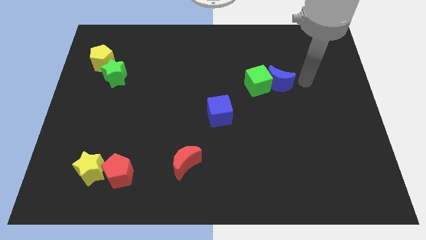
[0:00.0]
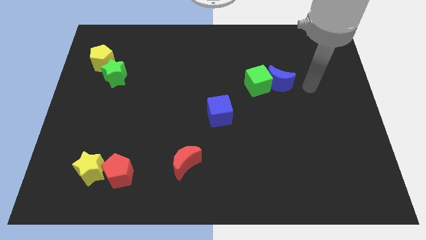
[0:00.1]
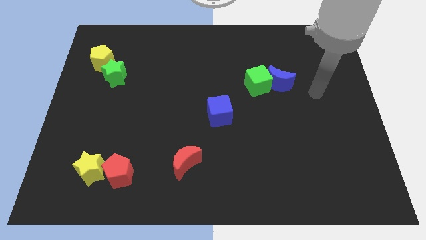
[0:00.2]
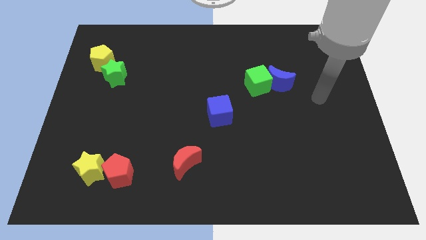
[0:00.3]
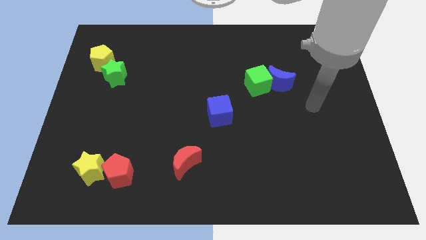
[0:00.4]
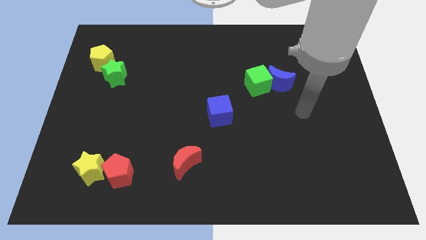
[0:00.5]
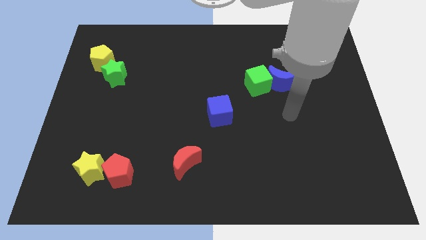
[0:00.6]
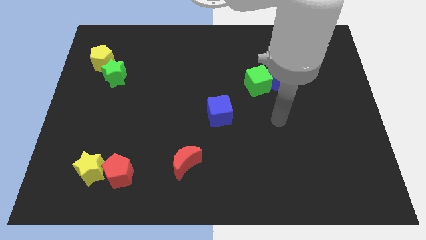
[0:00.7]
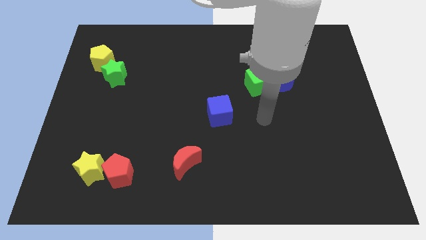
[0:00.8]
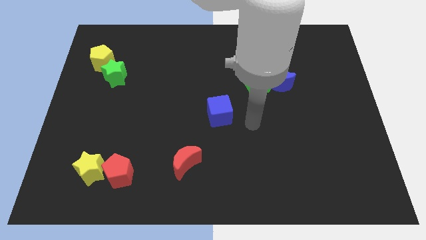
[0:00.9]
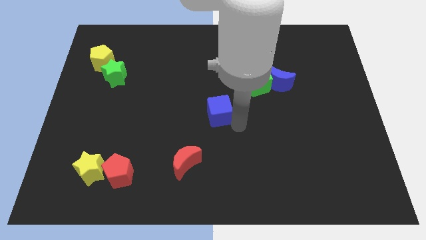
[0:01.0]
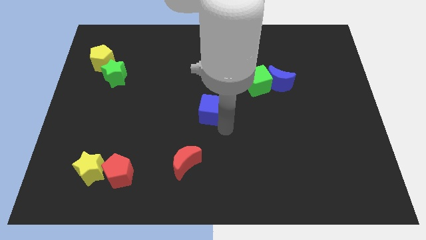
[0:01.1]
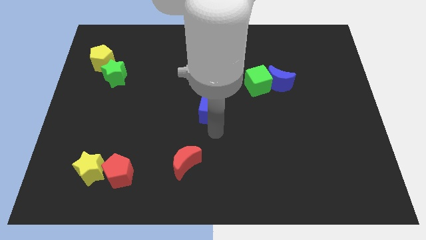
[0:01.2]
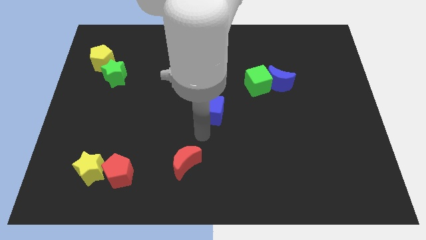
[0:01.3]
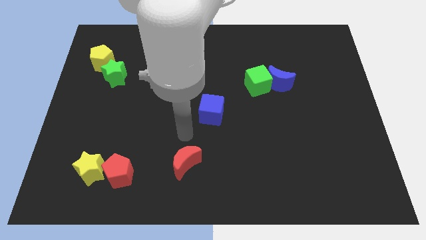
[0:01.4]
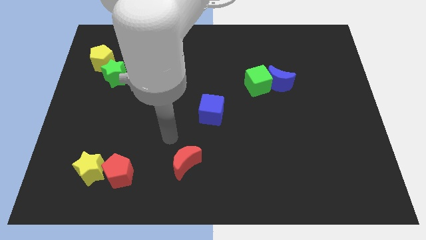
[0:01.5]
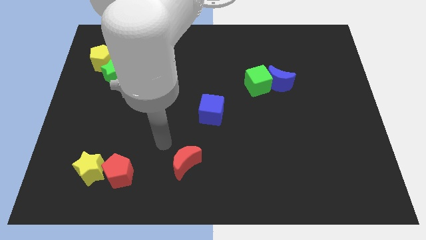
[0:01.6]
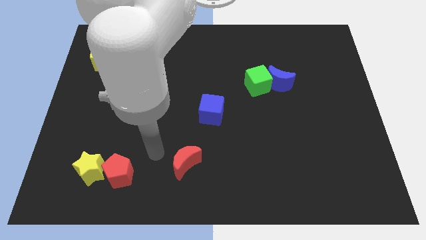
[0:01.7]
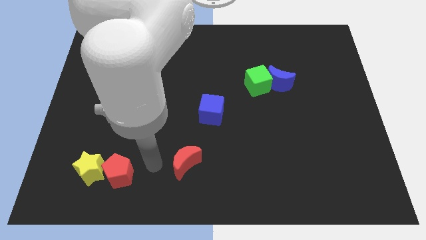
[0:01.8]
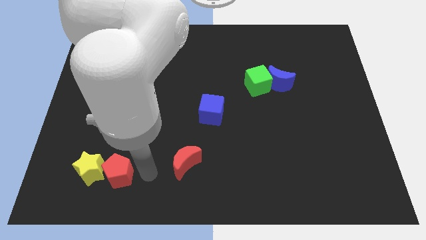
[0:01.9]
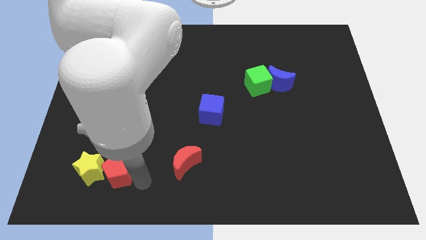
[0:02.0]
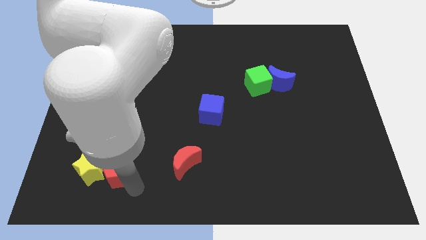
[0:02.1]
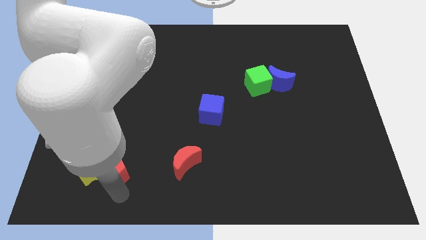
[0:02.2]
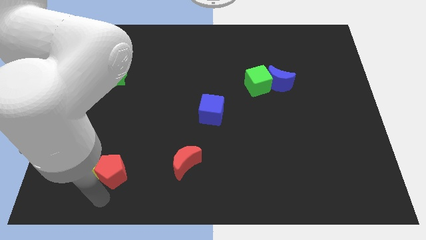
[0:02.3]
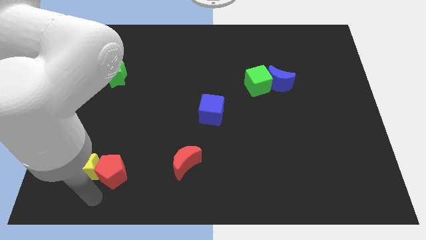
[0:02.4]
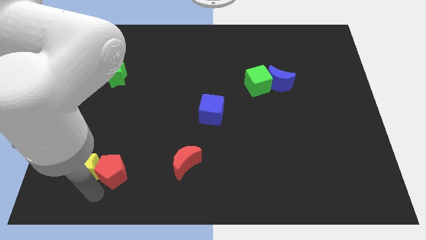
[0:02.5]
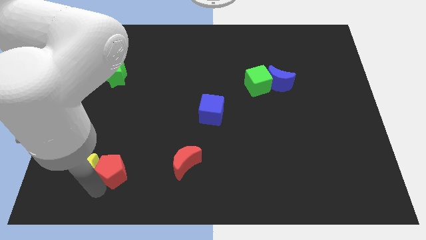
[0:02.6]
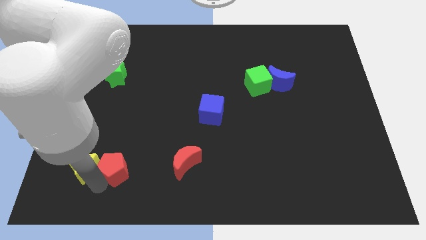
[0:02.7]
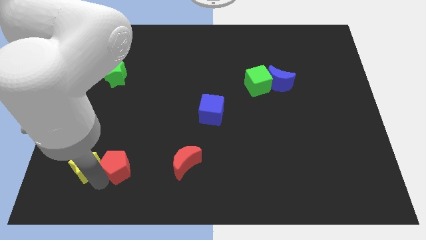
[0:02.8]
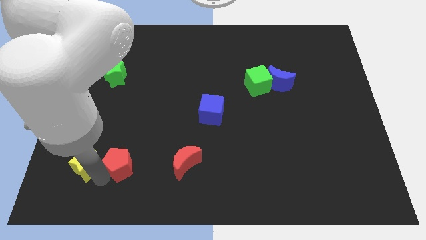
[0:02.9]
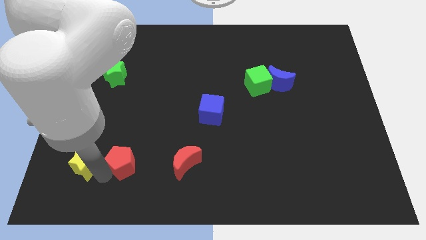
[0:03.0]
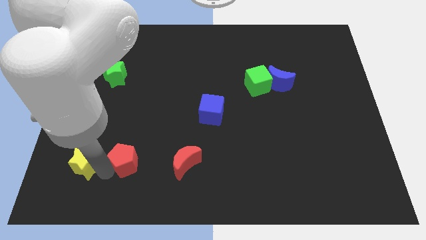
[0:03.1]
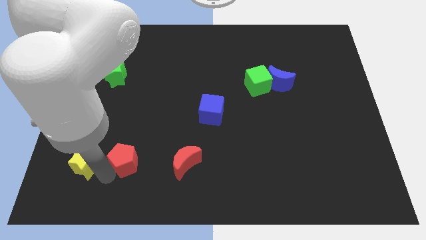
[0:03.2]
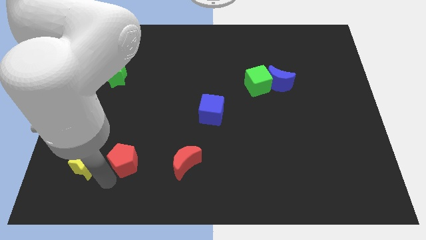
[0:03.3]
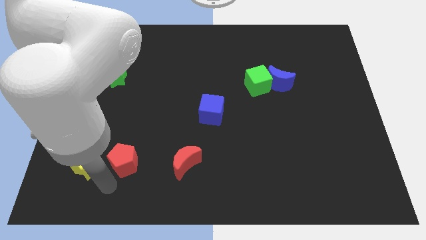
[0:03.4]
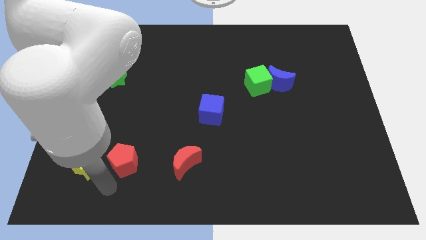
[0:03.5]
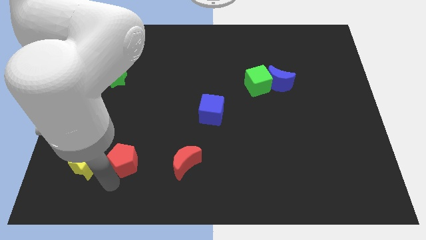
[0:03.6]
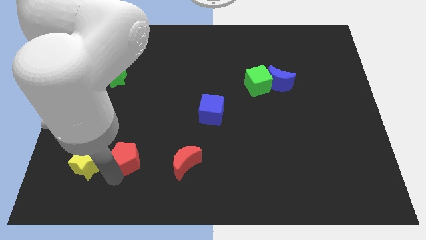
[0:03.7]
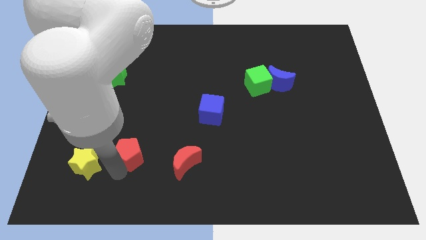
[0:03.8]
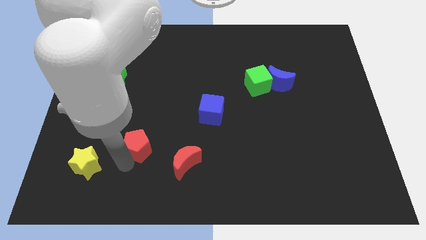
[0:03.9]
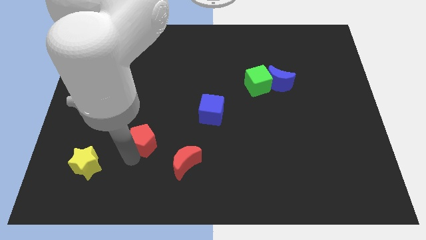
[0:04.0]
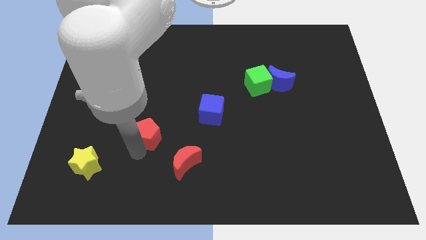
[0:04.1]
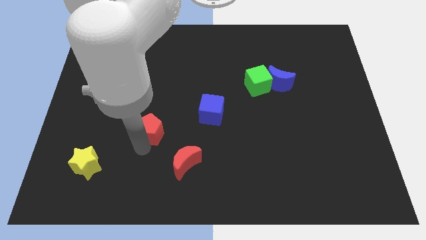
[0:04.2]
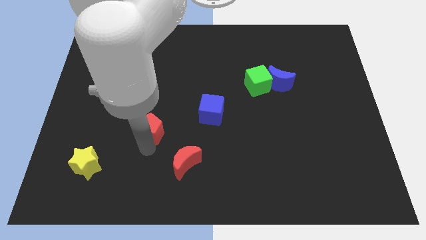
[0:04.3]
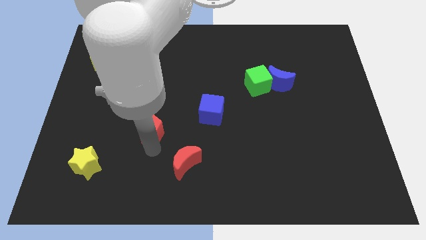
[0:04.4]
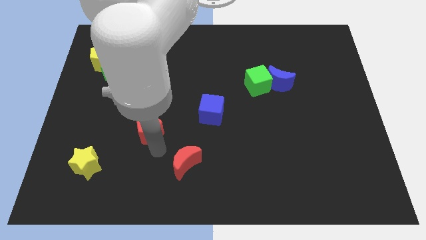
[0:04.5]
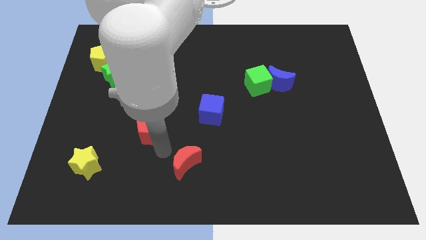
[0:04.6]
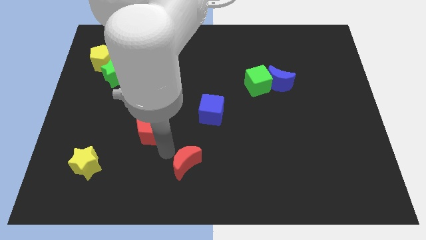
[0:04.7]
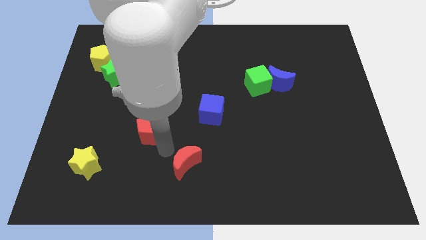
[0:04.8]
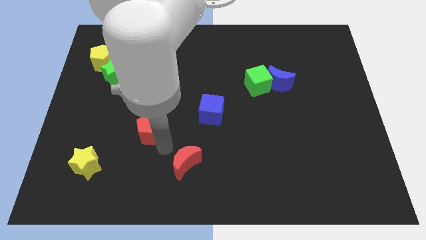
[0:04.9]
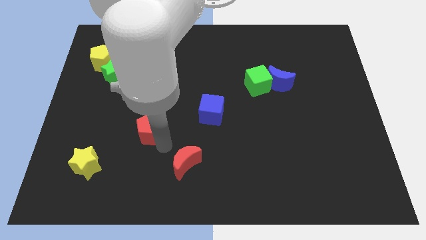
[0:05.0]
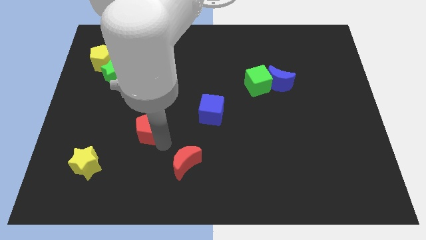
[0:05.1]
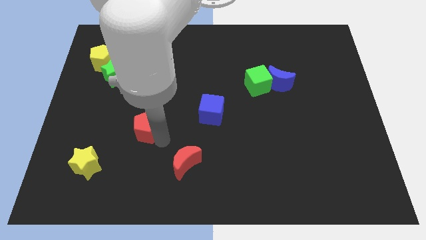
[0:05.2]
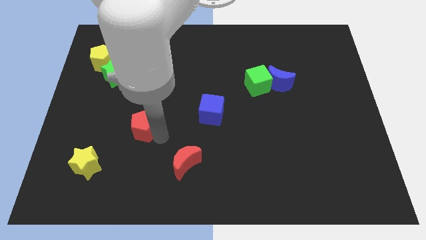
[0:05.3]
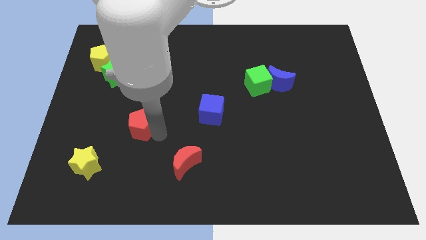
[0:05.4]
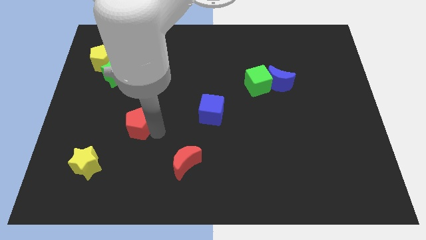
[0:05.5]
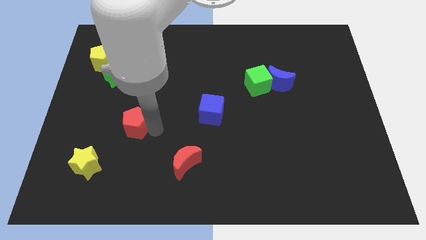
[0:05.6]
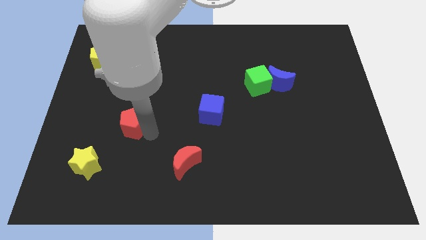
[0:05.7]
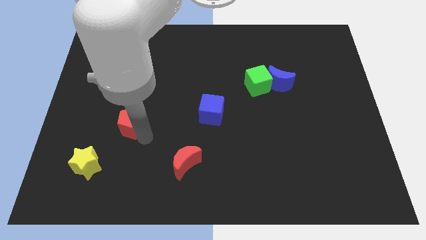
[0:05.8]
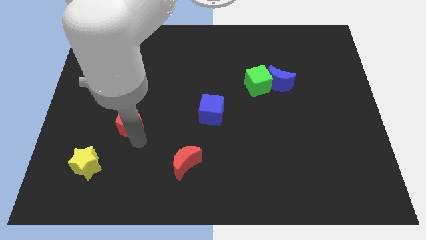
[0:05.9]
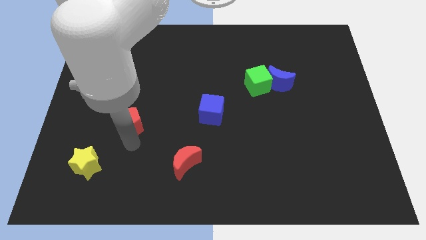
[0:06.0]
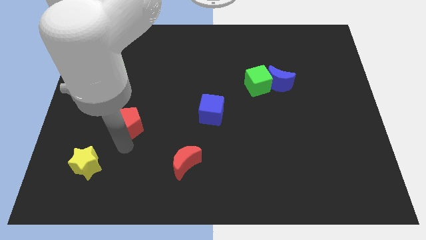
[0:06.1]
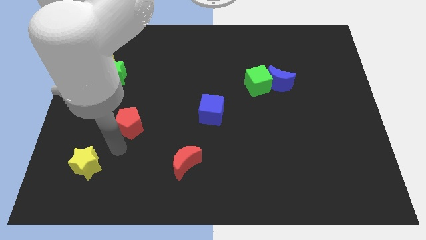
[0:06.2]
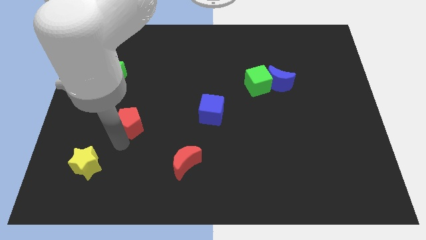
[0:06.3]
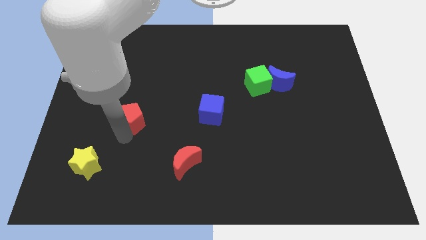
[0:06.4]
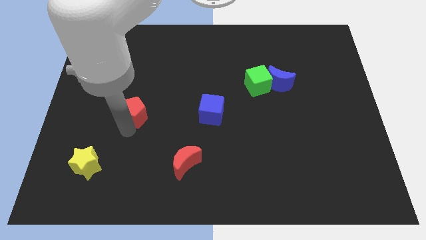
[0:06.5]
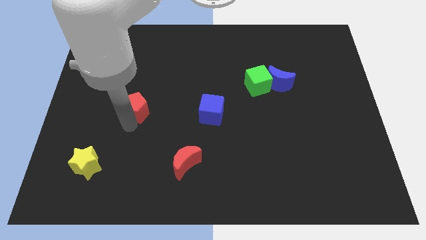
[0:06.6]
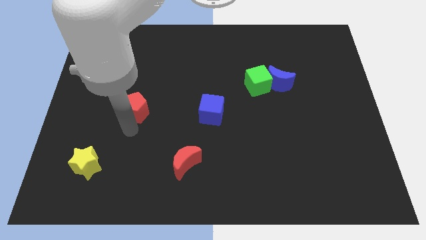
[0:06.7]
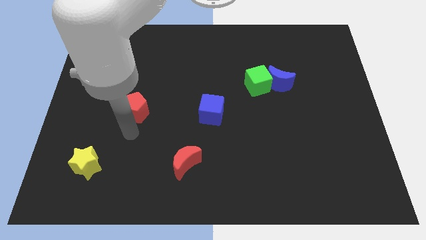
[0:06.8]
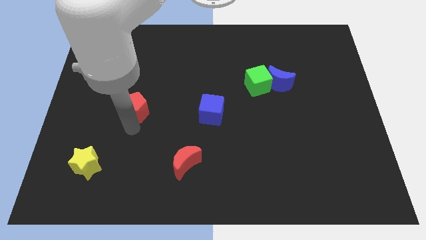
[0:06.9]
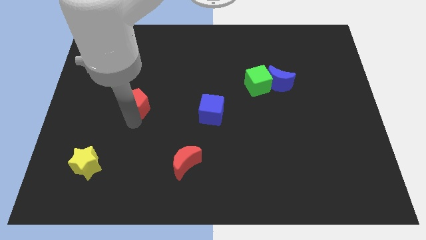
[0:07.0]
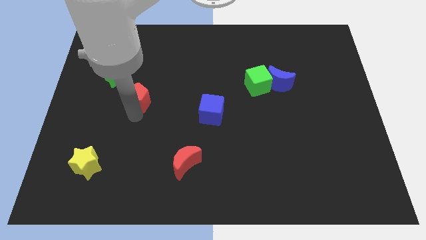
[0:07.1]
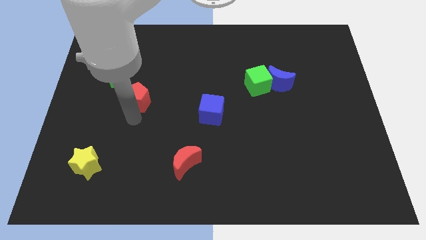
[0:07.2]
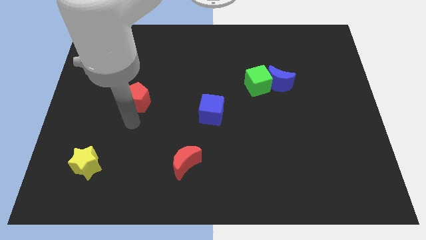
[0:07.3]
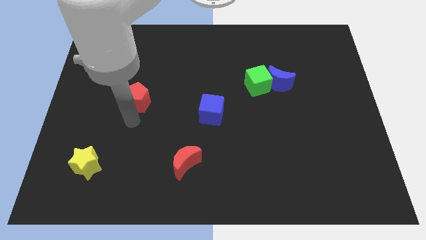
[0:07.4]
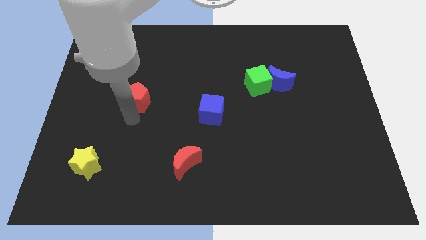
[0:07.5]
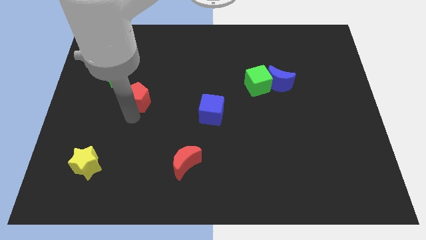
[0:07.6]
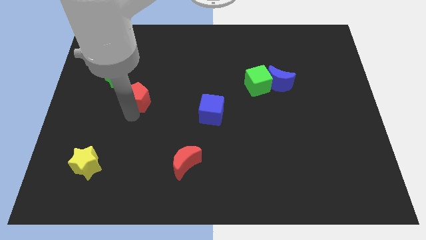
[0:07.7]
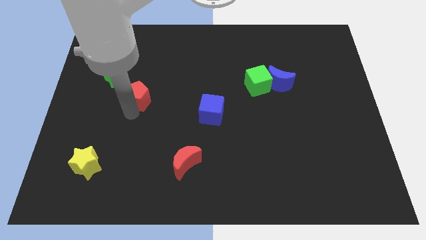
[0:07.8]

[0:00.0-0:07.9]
move the red pentagon upwards

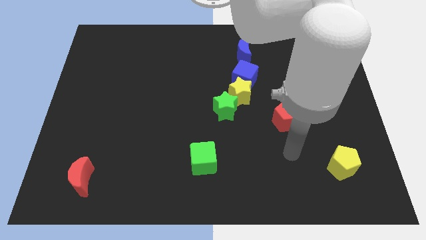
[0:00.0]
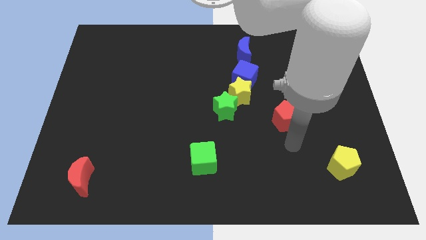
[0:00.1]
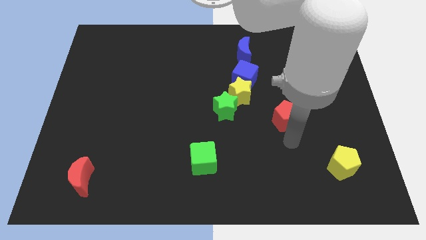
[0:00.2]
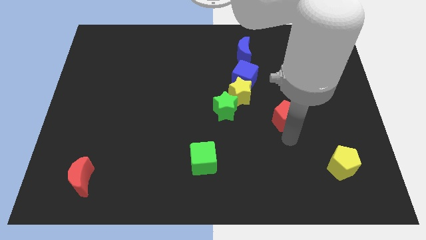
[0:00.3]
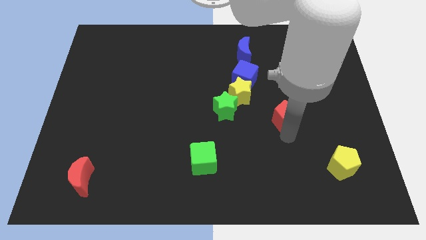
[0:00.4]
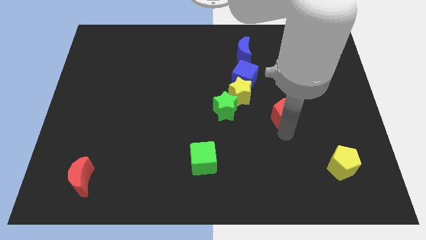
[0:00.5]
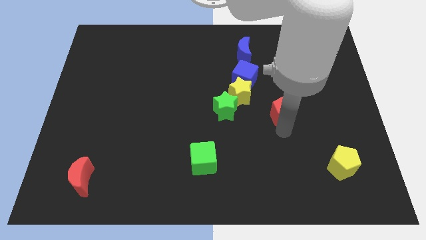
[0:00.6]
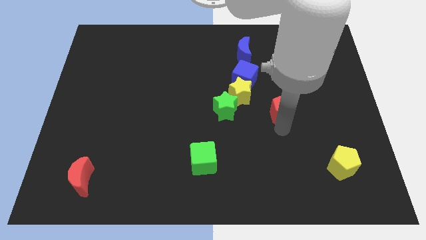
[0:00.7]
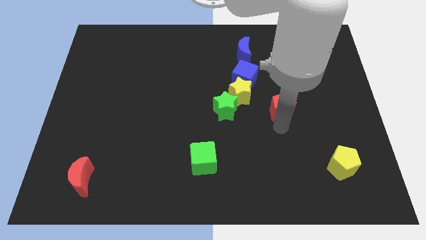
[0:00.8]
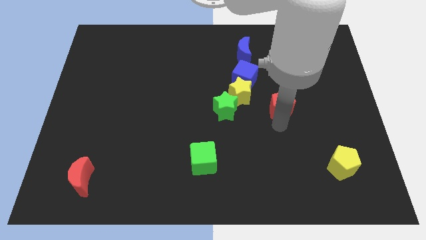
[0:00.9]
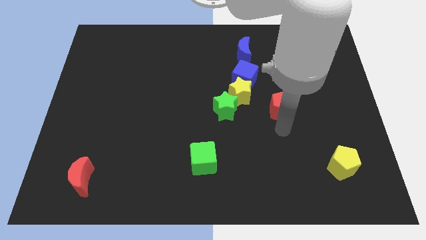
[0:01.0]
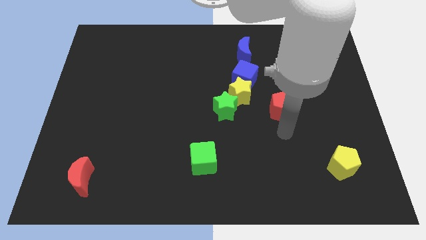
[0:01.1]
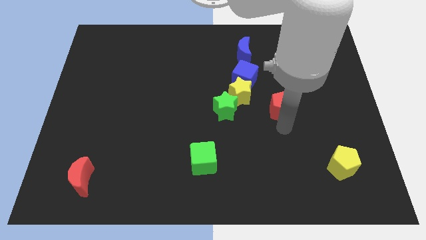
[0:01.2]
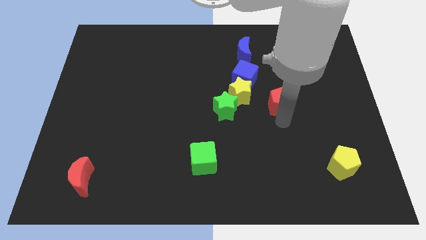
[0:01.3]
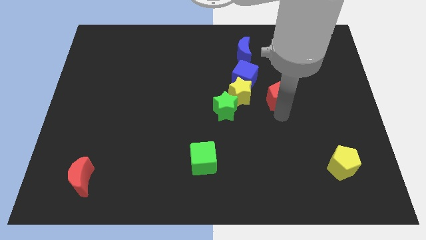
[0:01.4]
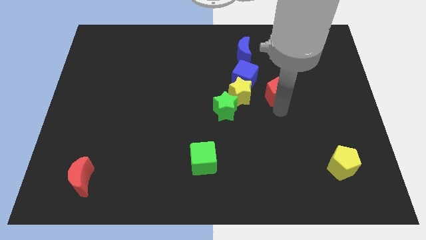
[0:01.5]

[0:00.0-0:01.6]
move the red pentagon somewhat up
